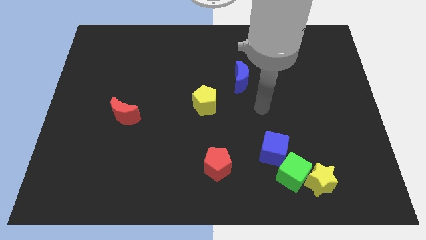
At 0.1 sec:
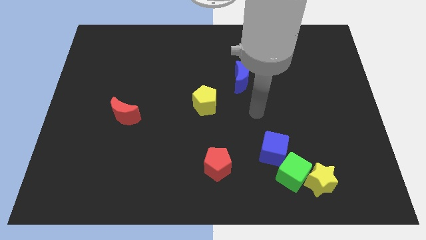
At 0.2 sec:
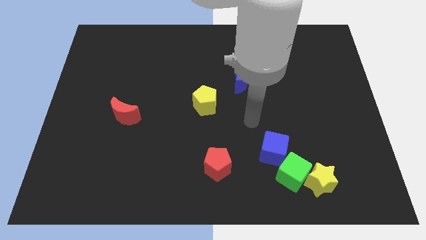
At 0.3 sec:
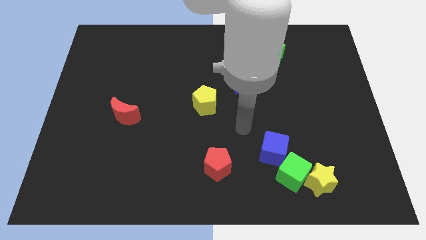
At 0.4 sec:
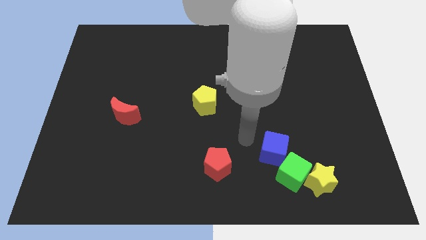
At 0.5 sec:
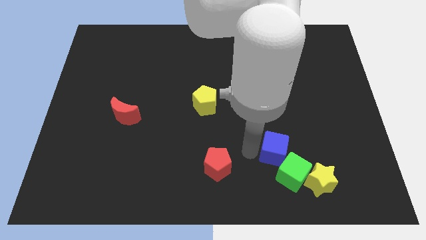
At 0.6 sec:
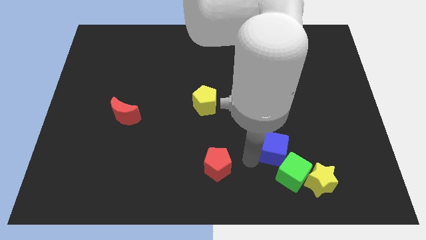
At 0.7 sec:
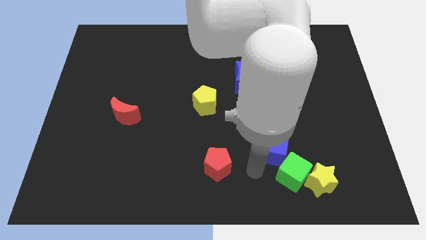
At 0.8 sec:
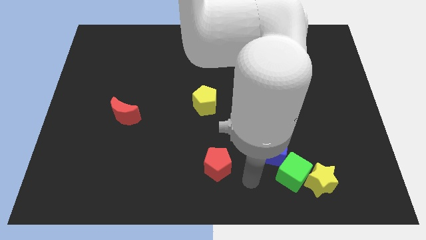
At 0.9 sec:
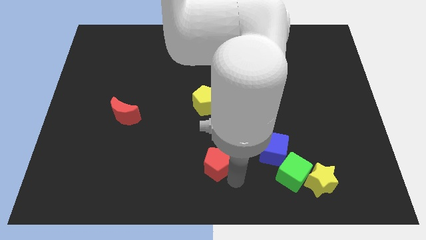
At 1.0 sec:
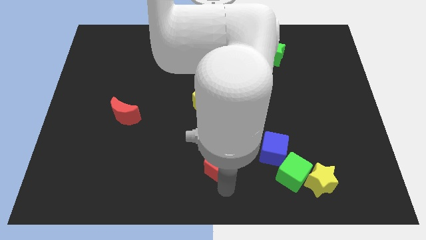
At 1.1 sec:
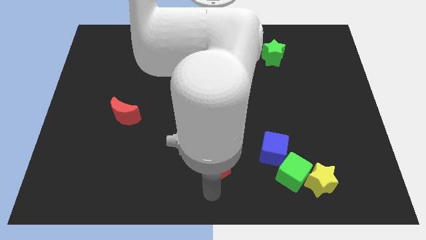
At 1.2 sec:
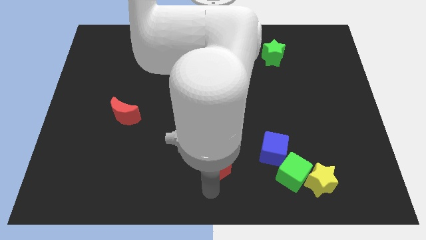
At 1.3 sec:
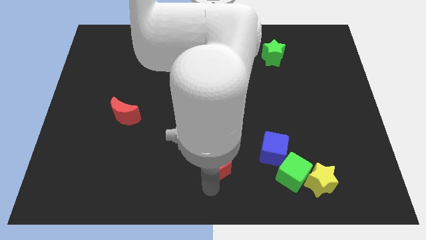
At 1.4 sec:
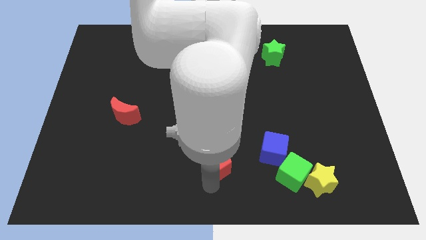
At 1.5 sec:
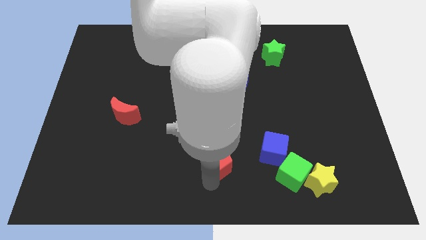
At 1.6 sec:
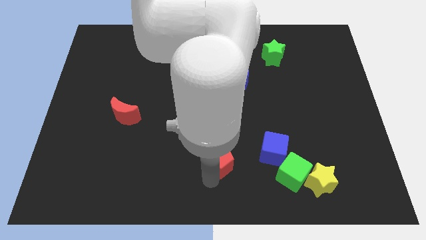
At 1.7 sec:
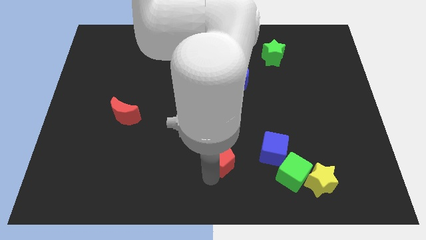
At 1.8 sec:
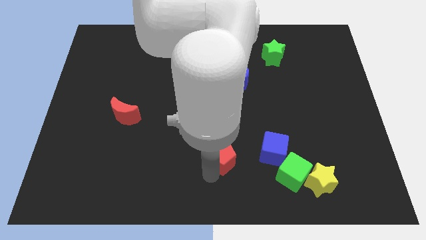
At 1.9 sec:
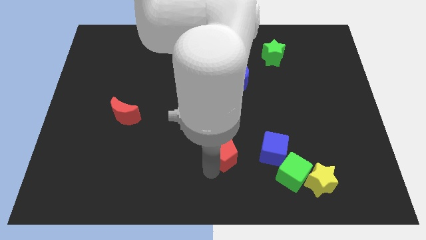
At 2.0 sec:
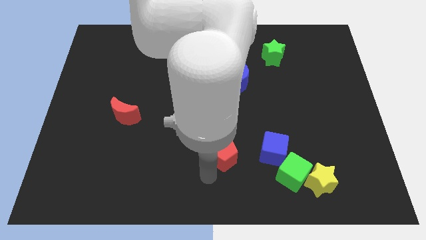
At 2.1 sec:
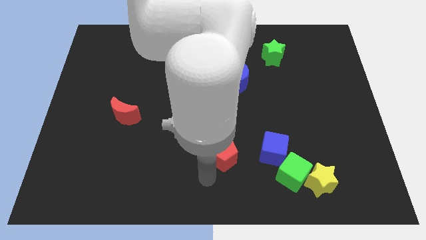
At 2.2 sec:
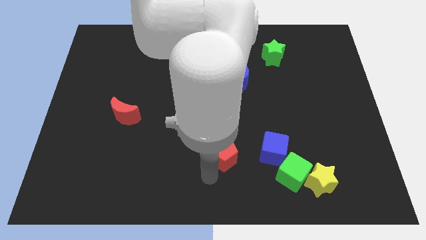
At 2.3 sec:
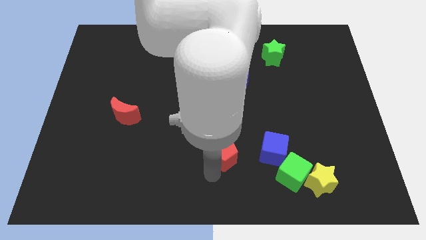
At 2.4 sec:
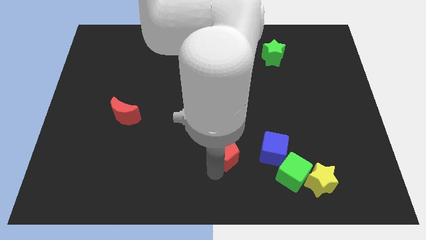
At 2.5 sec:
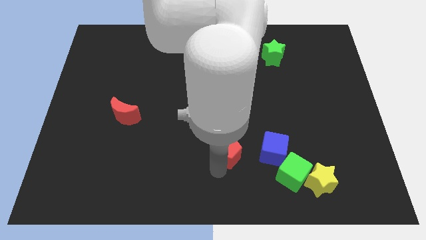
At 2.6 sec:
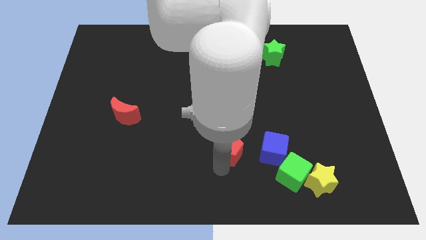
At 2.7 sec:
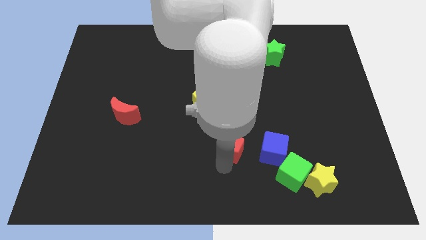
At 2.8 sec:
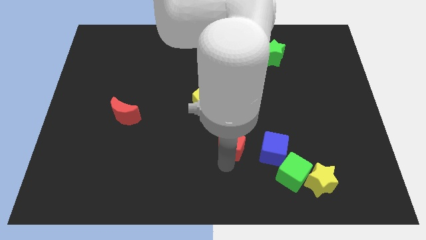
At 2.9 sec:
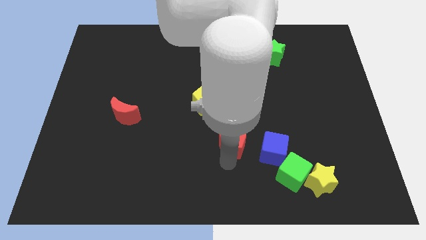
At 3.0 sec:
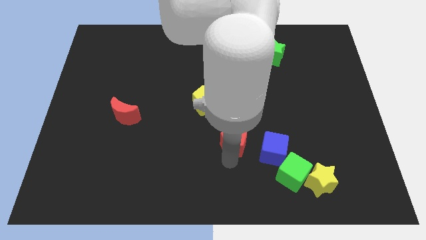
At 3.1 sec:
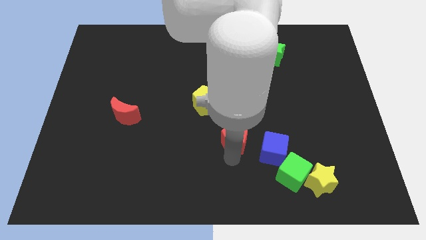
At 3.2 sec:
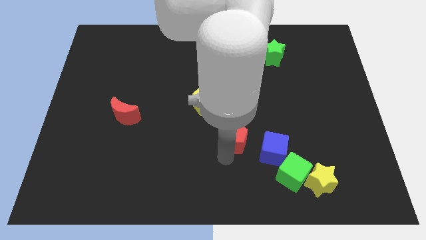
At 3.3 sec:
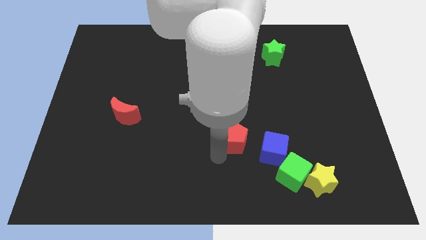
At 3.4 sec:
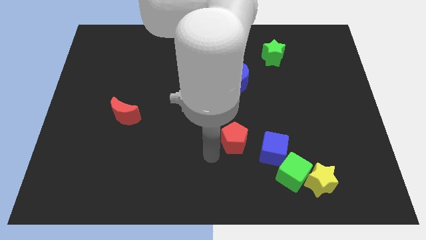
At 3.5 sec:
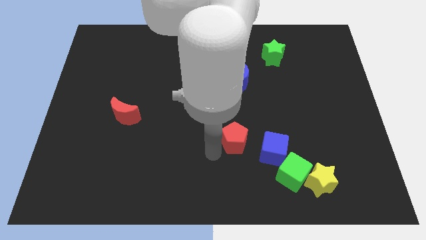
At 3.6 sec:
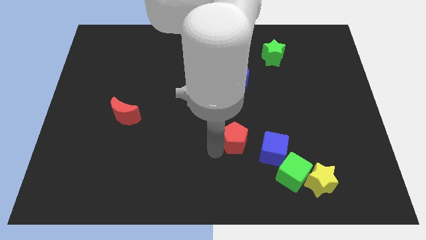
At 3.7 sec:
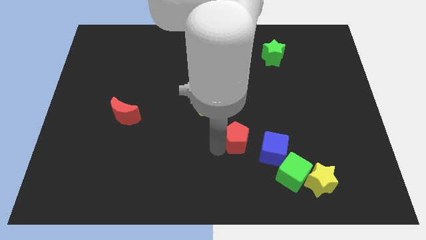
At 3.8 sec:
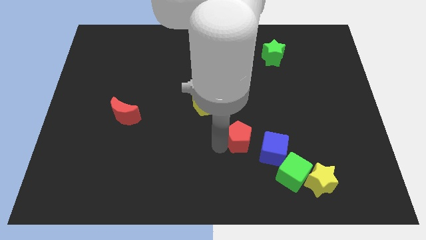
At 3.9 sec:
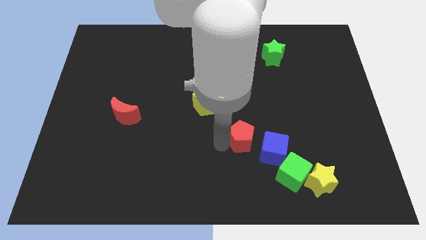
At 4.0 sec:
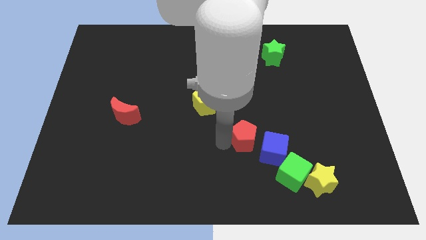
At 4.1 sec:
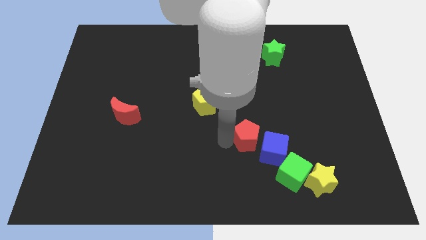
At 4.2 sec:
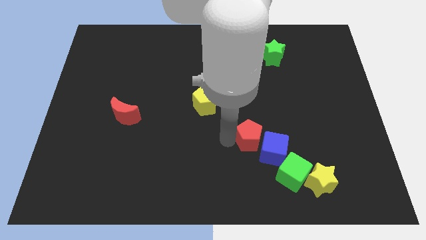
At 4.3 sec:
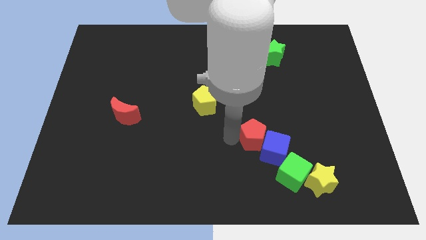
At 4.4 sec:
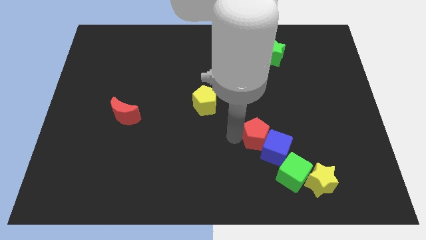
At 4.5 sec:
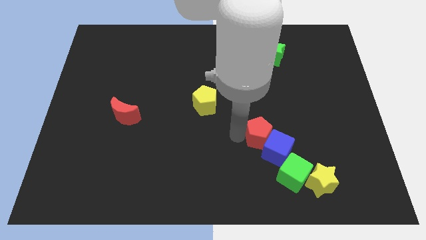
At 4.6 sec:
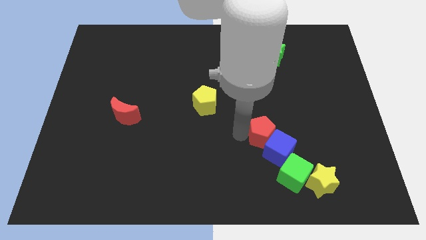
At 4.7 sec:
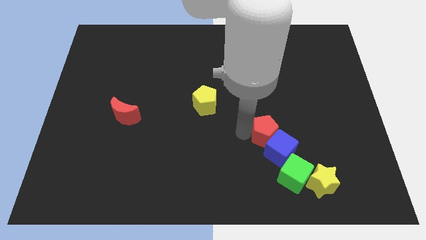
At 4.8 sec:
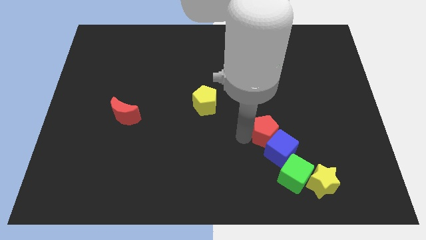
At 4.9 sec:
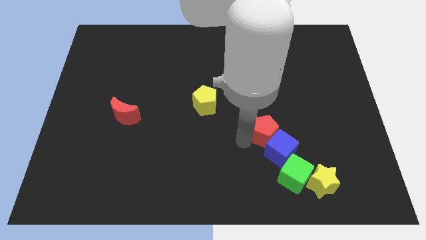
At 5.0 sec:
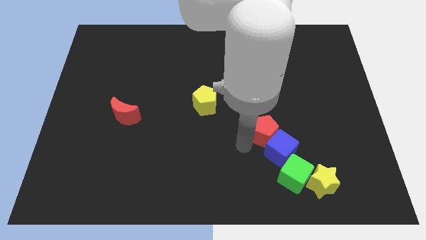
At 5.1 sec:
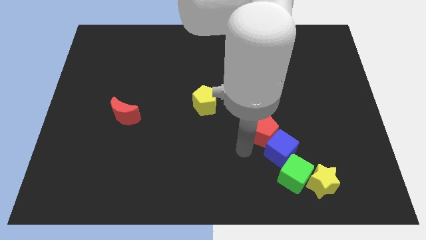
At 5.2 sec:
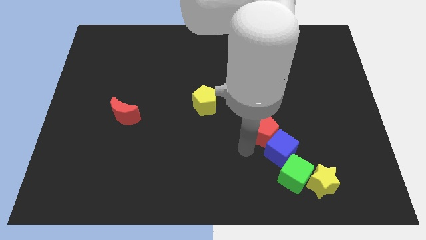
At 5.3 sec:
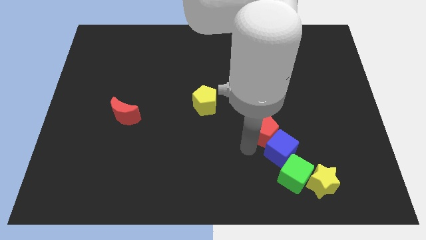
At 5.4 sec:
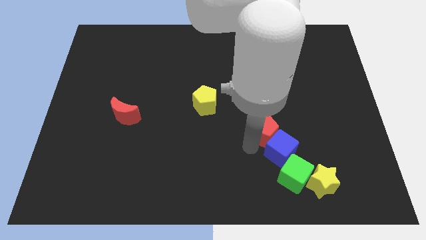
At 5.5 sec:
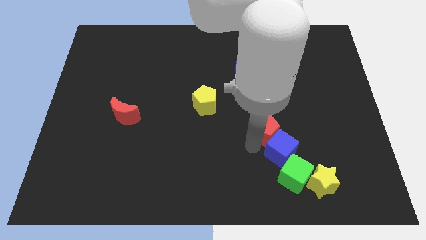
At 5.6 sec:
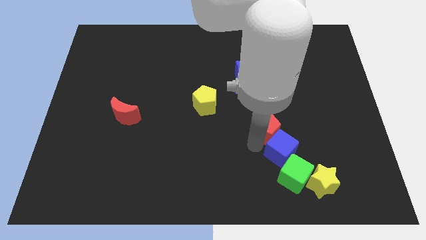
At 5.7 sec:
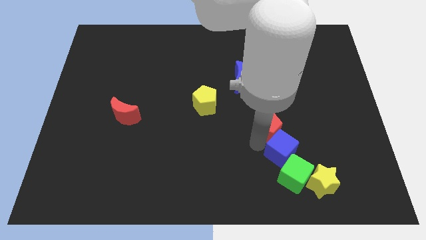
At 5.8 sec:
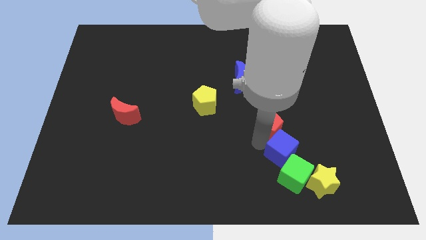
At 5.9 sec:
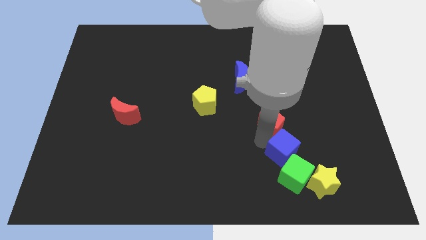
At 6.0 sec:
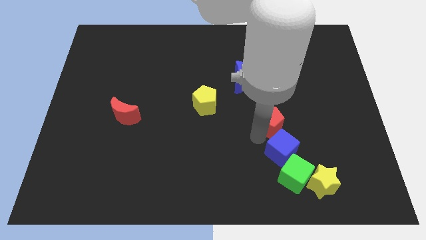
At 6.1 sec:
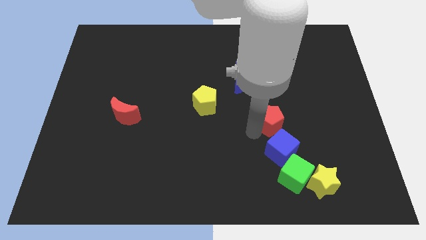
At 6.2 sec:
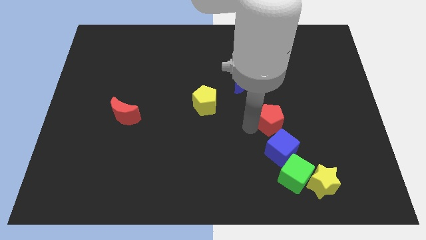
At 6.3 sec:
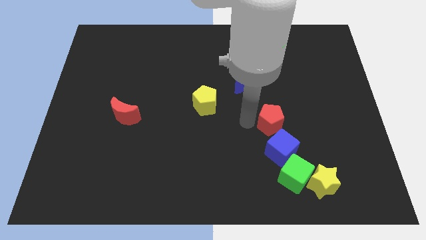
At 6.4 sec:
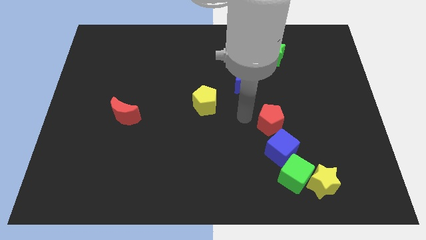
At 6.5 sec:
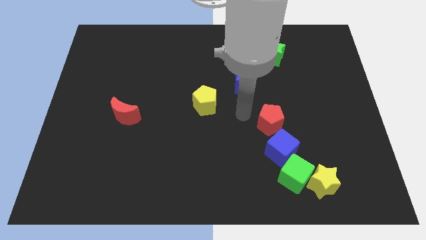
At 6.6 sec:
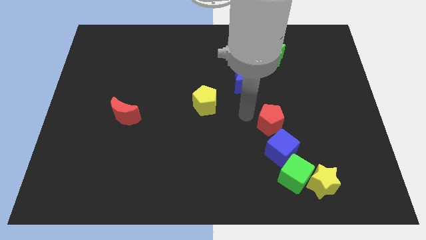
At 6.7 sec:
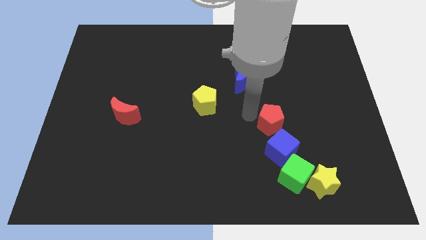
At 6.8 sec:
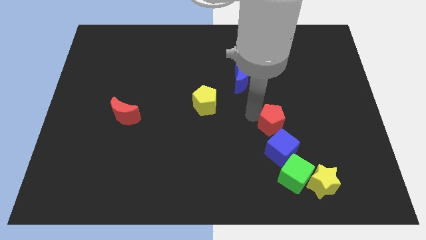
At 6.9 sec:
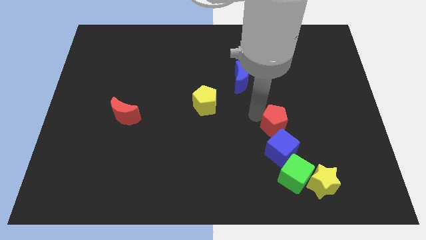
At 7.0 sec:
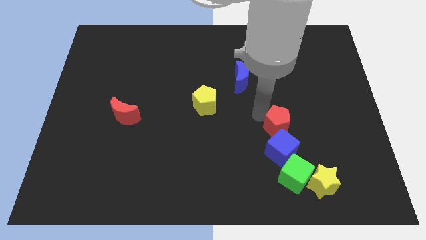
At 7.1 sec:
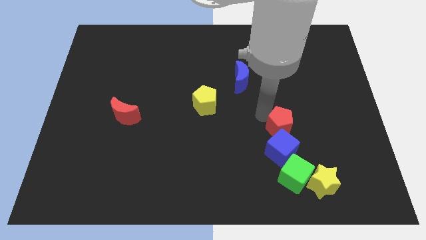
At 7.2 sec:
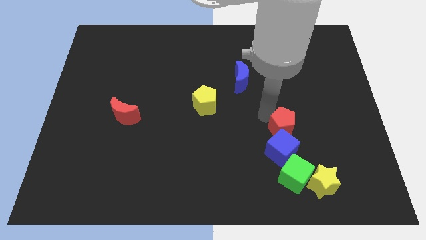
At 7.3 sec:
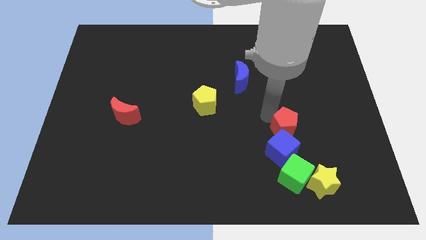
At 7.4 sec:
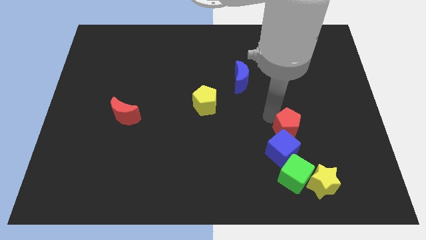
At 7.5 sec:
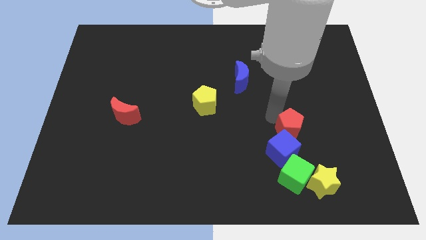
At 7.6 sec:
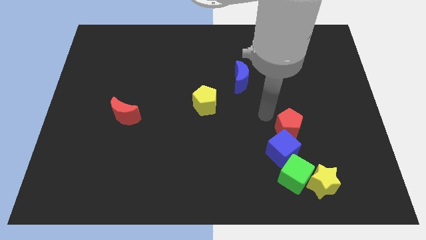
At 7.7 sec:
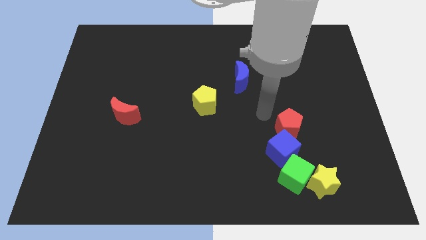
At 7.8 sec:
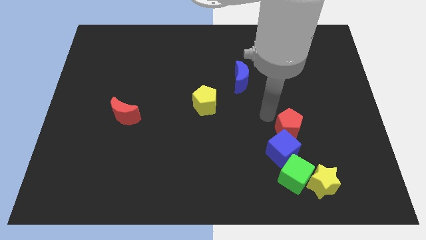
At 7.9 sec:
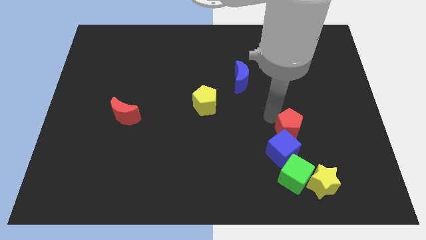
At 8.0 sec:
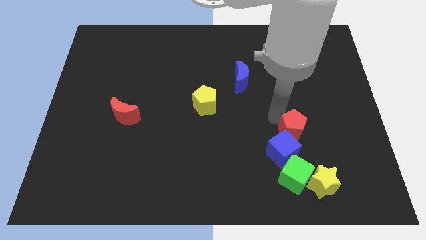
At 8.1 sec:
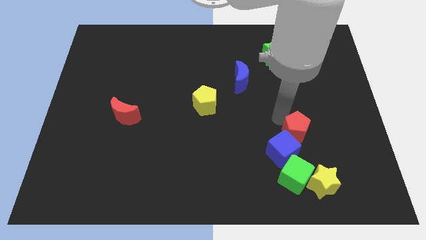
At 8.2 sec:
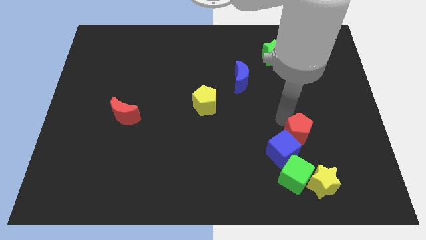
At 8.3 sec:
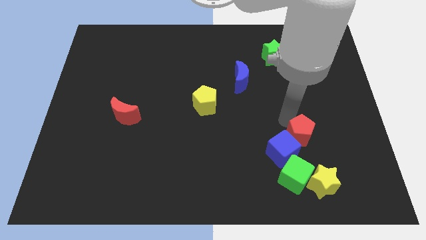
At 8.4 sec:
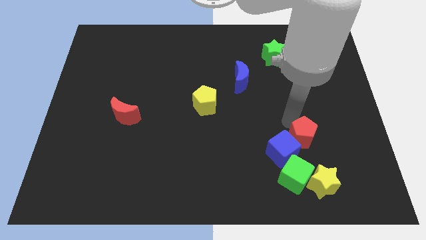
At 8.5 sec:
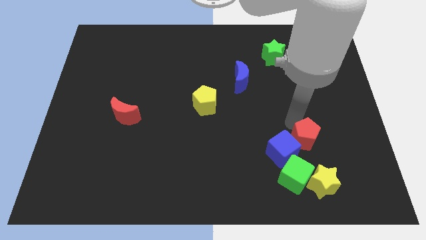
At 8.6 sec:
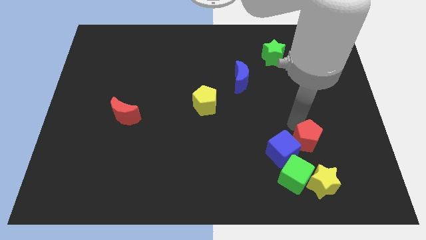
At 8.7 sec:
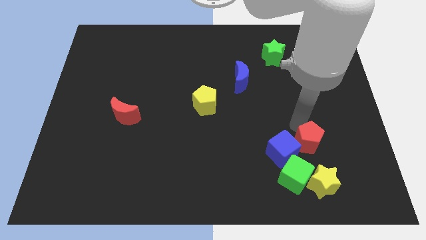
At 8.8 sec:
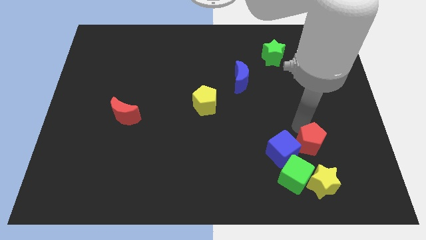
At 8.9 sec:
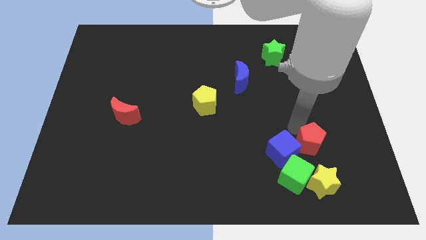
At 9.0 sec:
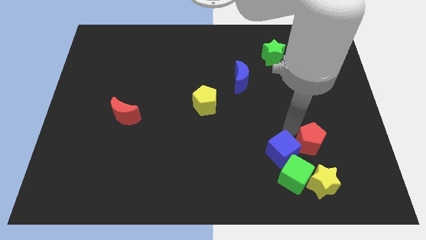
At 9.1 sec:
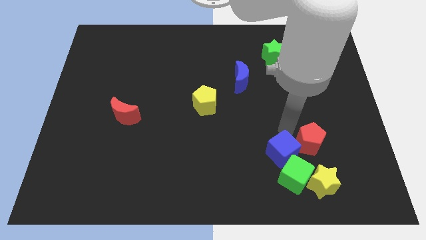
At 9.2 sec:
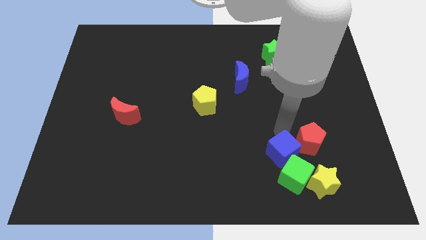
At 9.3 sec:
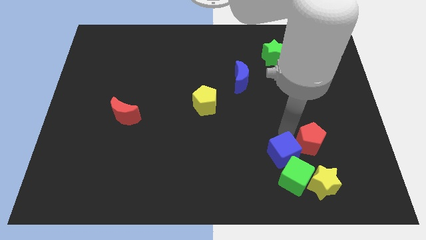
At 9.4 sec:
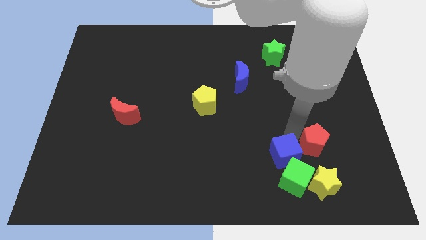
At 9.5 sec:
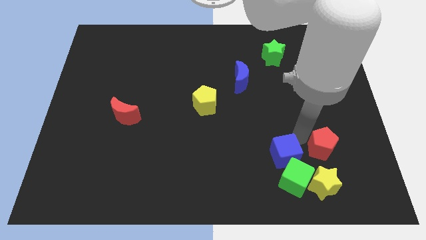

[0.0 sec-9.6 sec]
slide the red pentagon to the top right side of the yellow star
